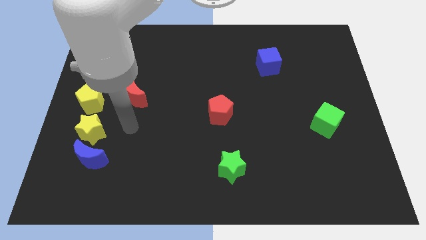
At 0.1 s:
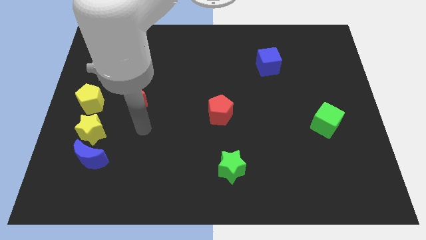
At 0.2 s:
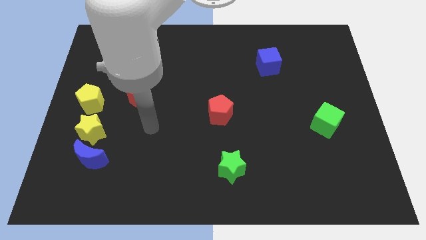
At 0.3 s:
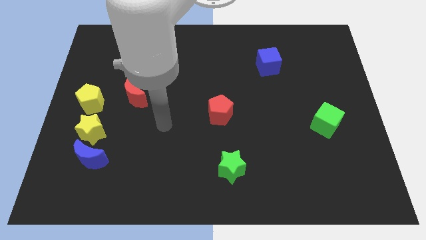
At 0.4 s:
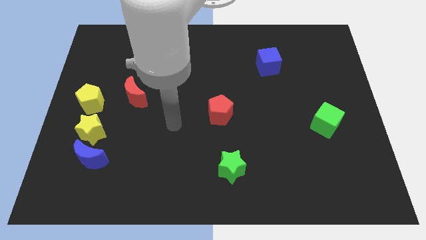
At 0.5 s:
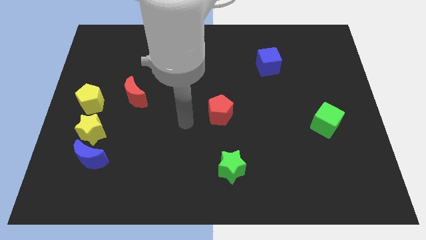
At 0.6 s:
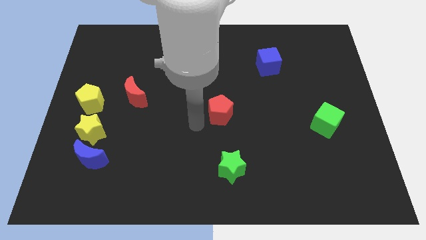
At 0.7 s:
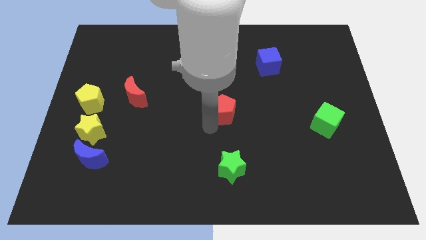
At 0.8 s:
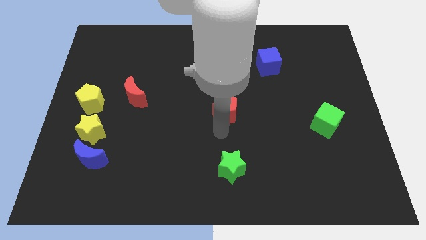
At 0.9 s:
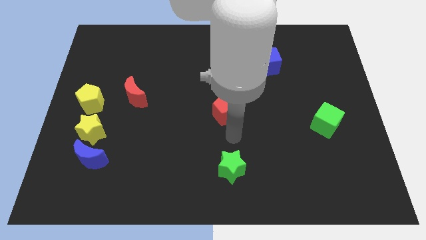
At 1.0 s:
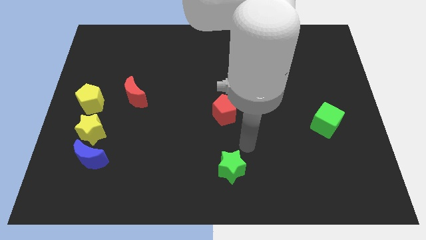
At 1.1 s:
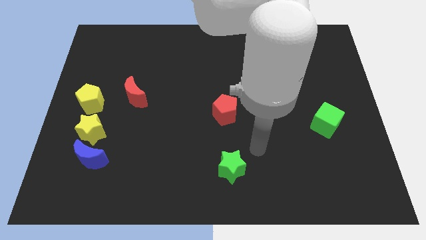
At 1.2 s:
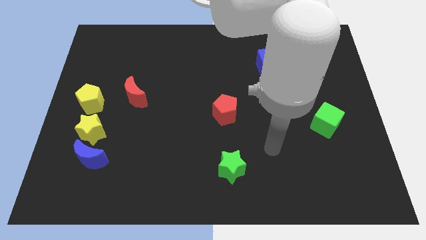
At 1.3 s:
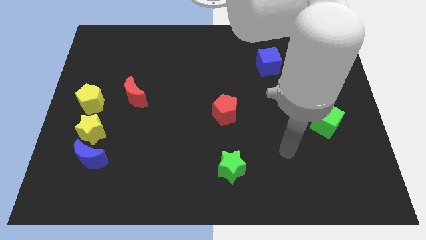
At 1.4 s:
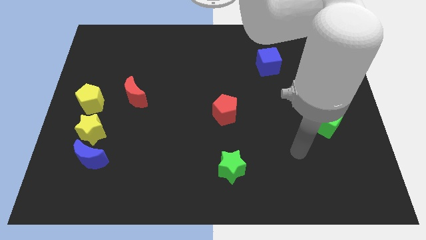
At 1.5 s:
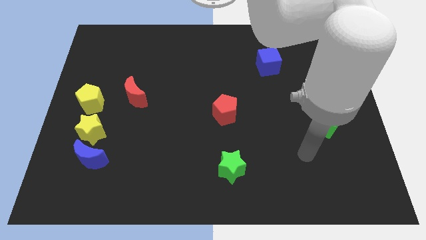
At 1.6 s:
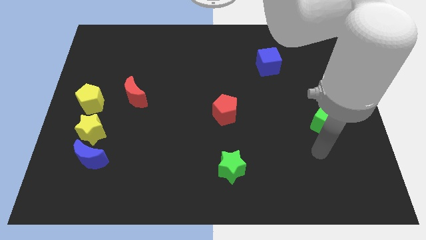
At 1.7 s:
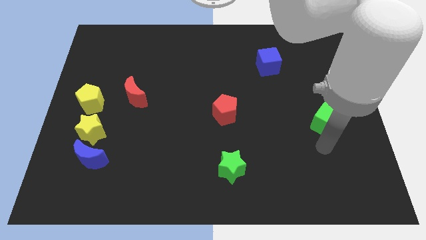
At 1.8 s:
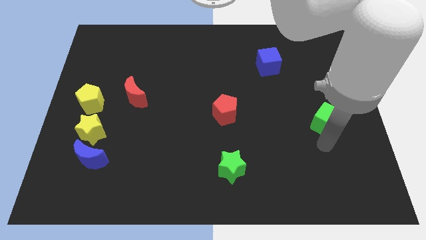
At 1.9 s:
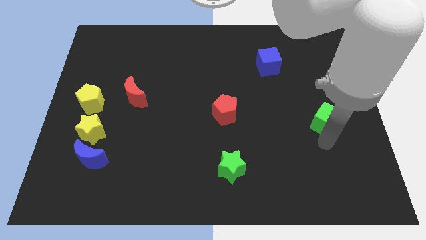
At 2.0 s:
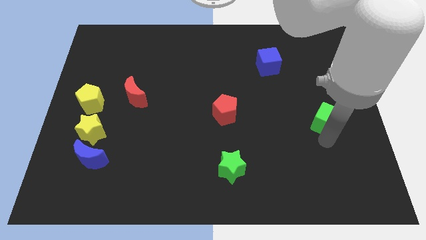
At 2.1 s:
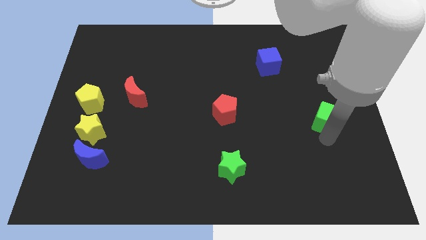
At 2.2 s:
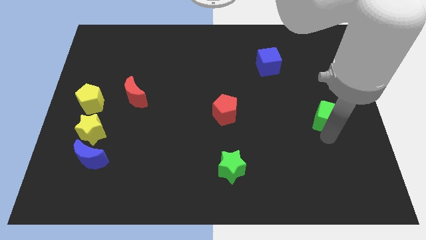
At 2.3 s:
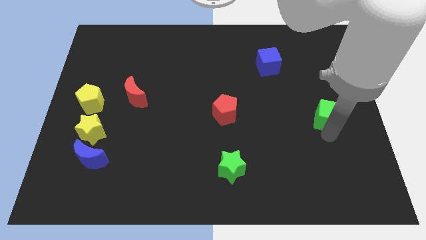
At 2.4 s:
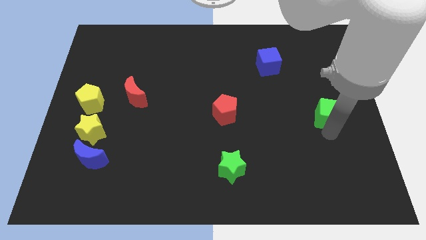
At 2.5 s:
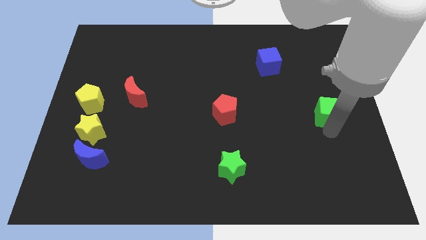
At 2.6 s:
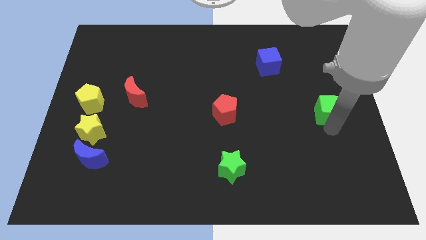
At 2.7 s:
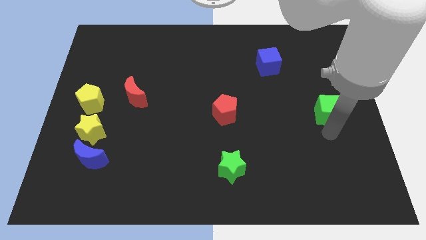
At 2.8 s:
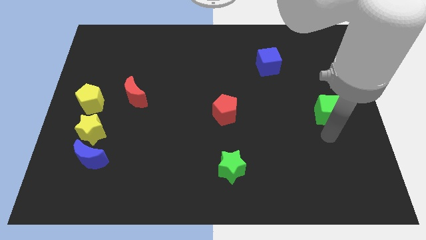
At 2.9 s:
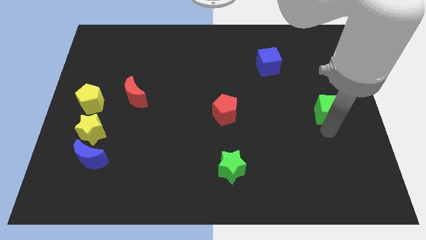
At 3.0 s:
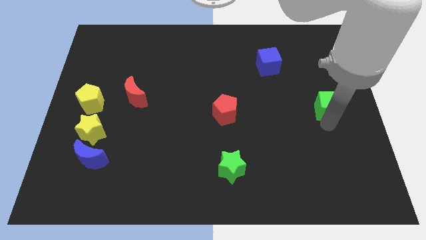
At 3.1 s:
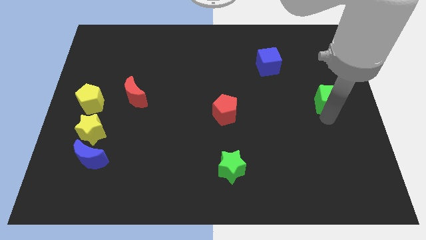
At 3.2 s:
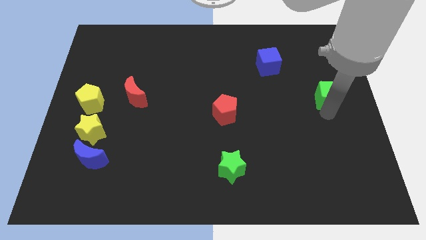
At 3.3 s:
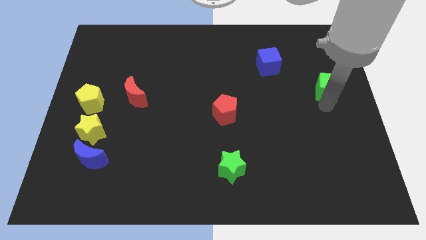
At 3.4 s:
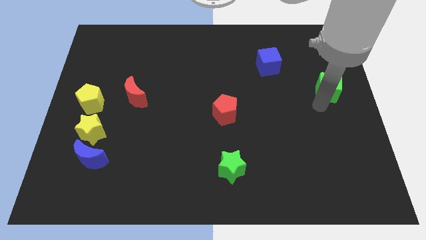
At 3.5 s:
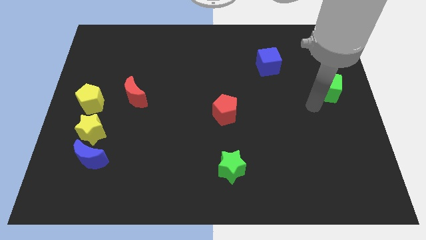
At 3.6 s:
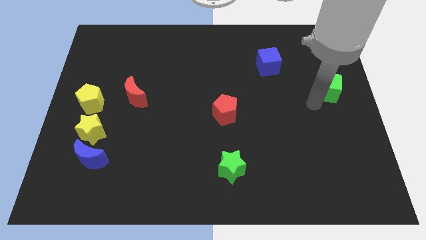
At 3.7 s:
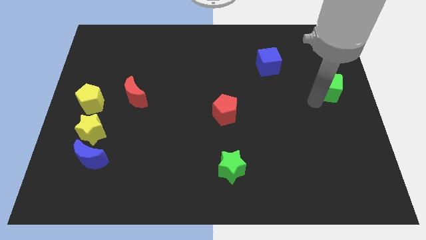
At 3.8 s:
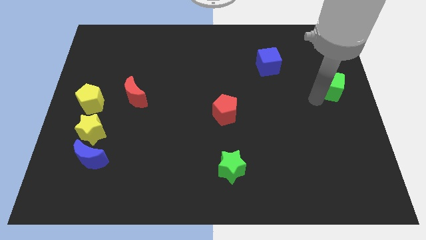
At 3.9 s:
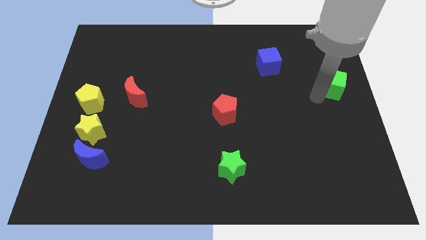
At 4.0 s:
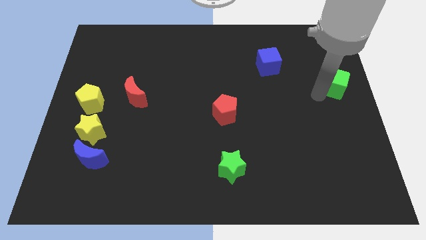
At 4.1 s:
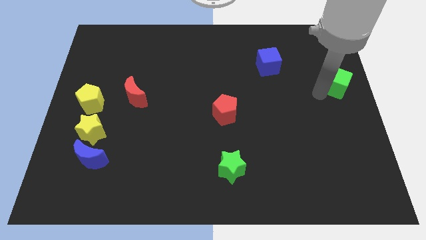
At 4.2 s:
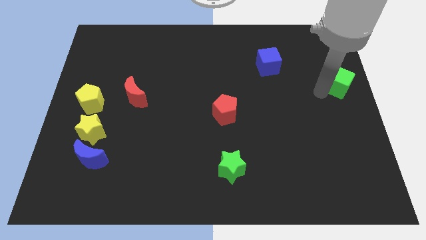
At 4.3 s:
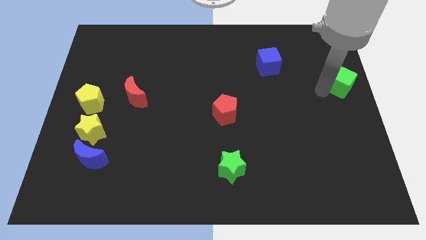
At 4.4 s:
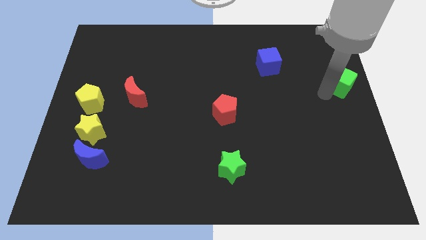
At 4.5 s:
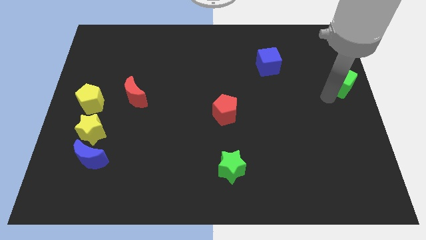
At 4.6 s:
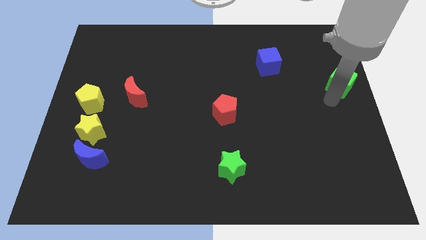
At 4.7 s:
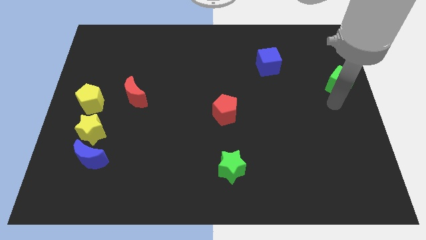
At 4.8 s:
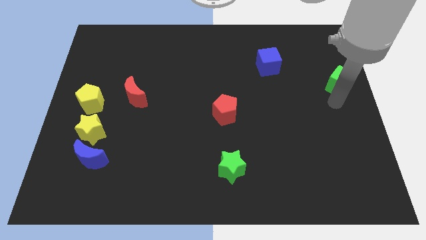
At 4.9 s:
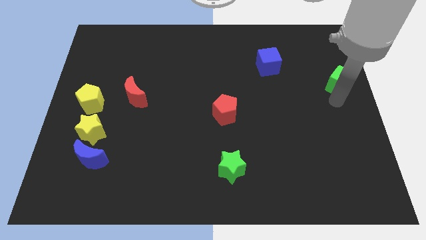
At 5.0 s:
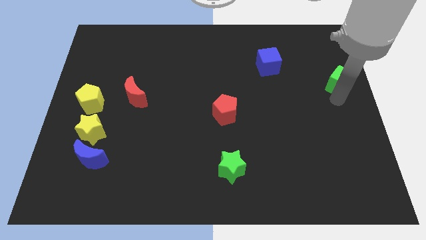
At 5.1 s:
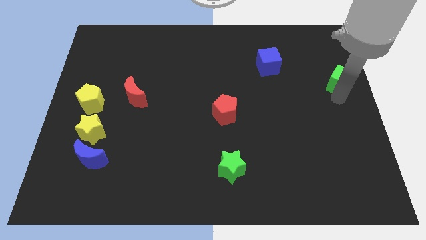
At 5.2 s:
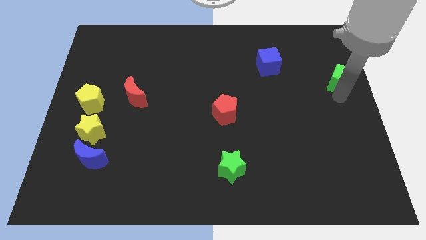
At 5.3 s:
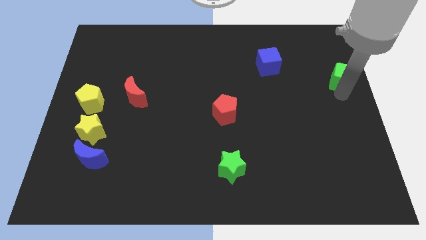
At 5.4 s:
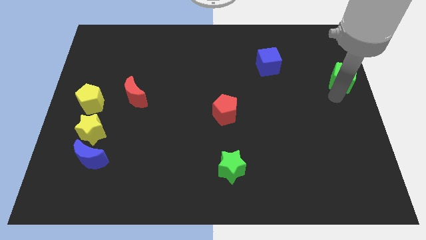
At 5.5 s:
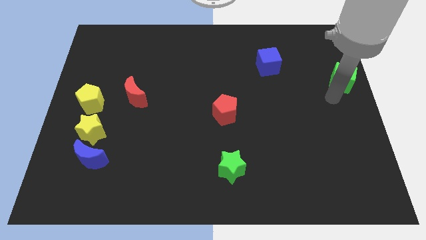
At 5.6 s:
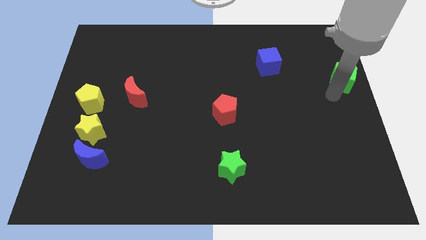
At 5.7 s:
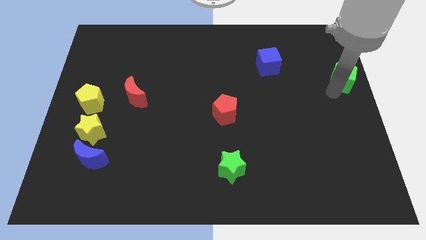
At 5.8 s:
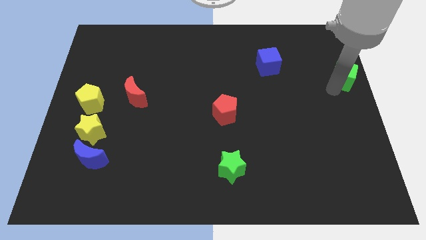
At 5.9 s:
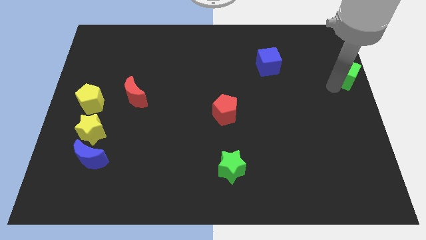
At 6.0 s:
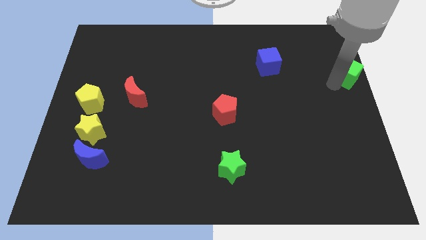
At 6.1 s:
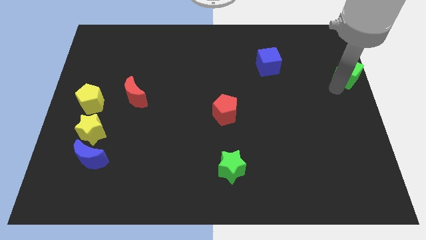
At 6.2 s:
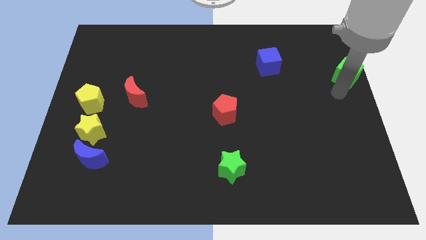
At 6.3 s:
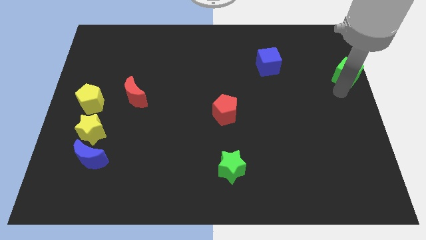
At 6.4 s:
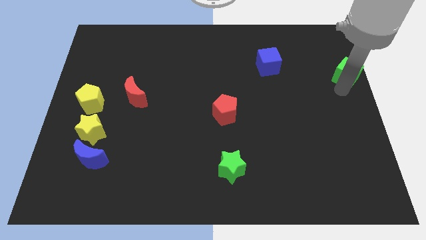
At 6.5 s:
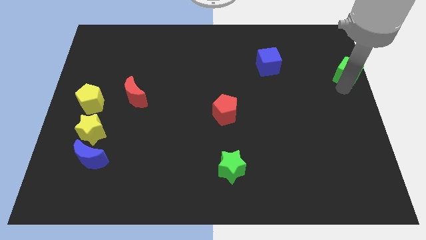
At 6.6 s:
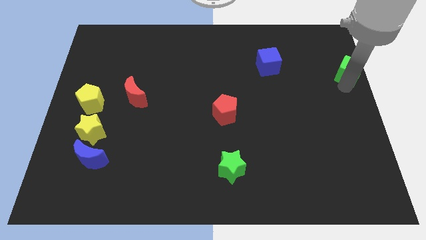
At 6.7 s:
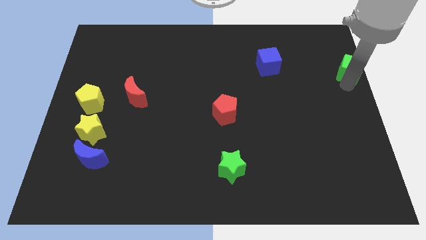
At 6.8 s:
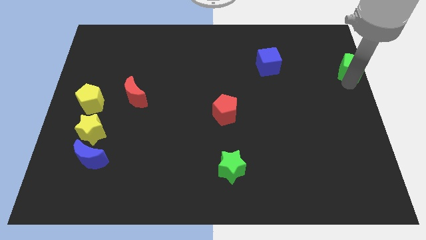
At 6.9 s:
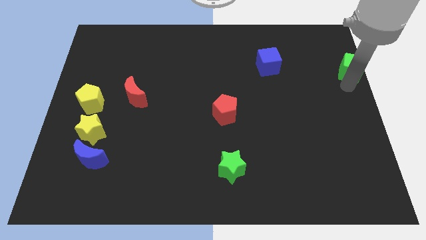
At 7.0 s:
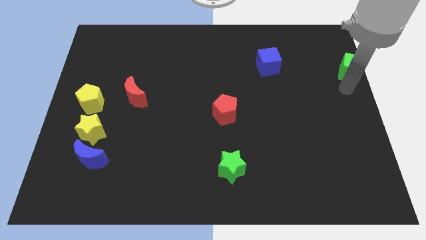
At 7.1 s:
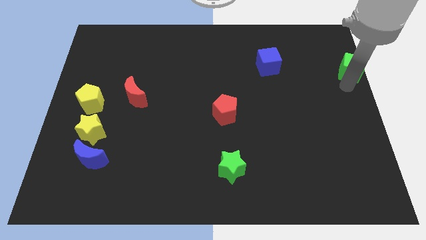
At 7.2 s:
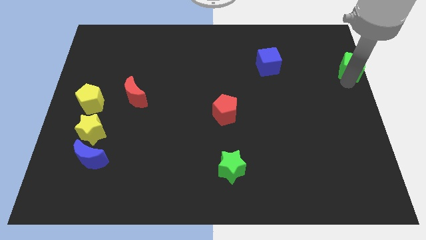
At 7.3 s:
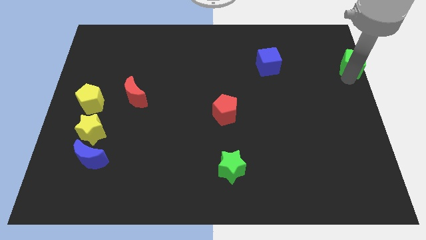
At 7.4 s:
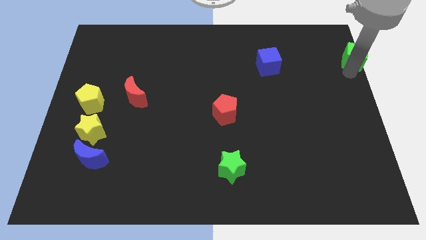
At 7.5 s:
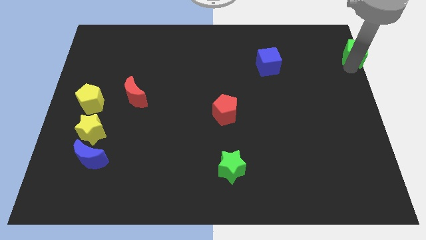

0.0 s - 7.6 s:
put the green cube to the top right
